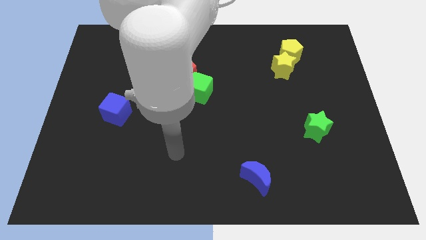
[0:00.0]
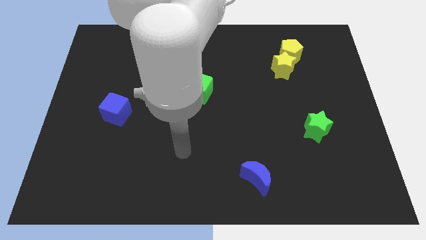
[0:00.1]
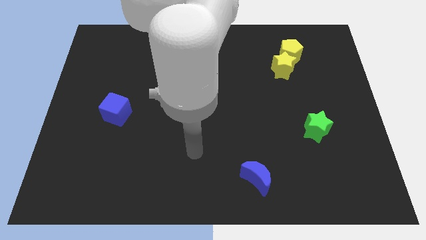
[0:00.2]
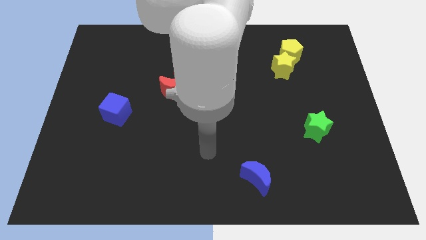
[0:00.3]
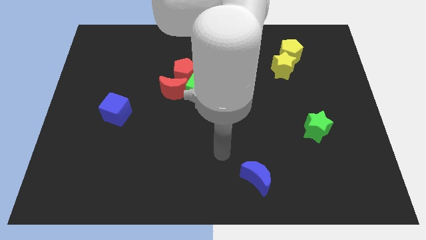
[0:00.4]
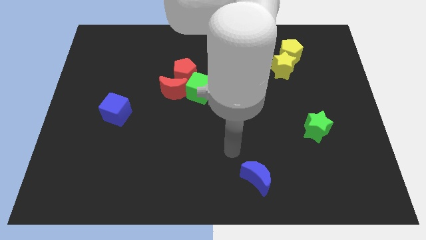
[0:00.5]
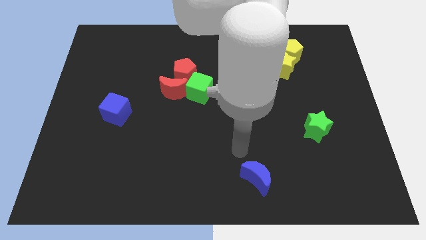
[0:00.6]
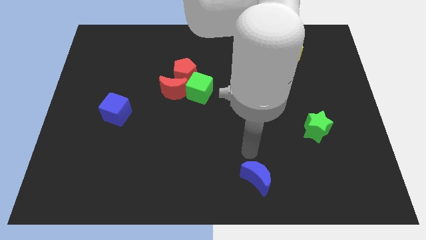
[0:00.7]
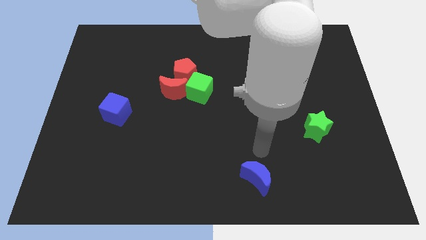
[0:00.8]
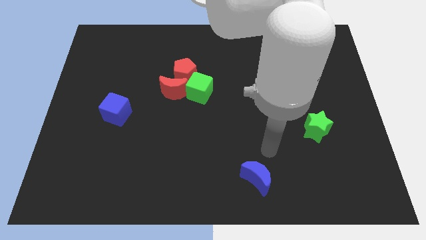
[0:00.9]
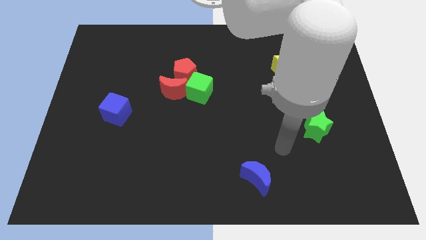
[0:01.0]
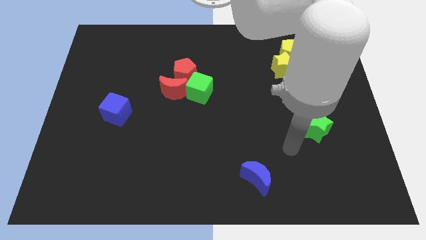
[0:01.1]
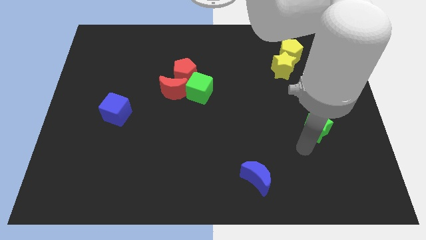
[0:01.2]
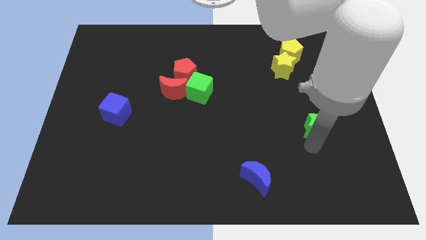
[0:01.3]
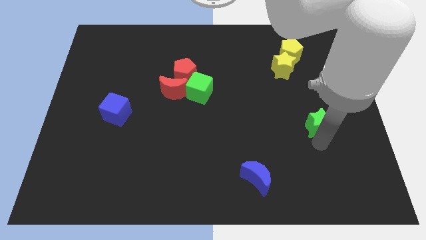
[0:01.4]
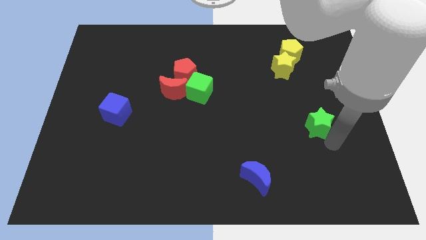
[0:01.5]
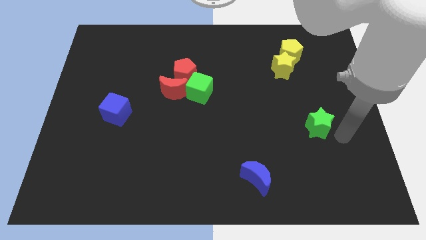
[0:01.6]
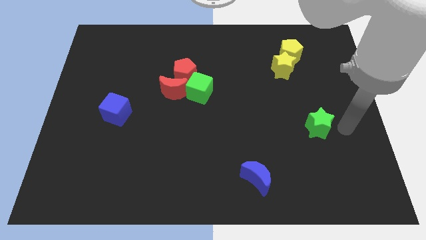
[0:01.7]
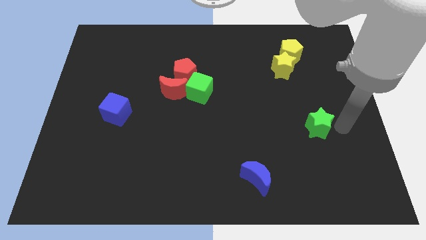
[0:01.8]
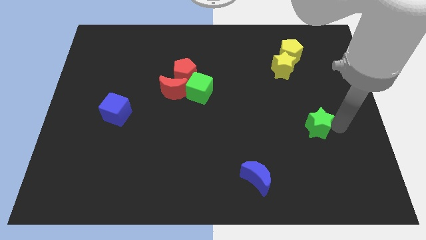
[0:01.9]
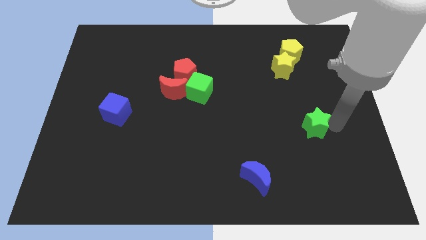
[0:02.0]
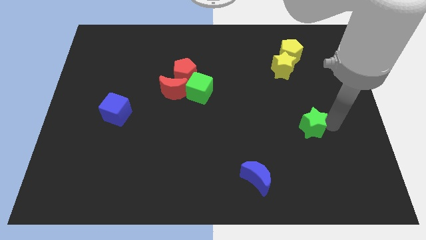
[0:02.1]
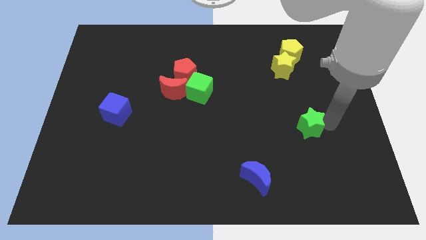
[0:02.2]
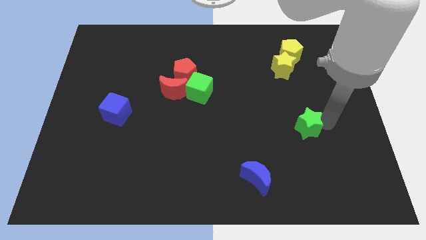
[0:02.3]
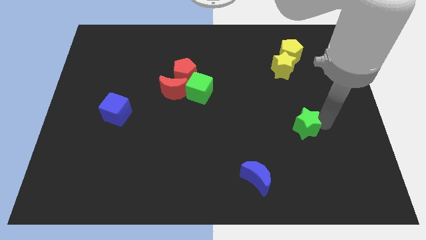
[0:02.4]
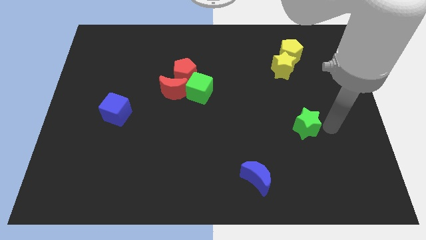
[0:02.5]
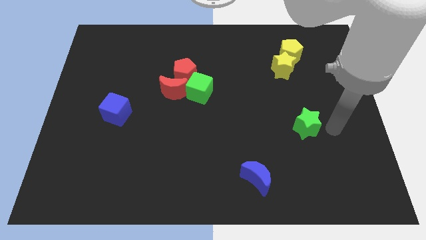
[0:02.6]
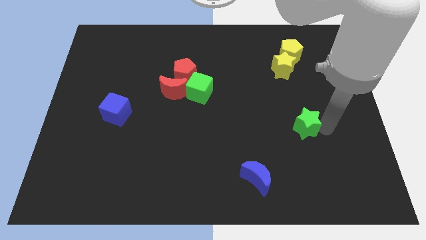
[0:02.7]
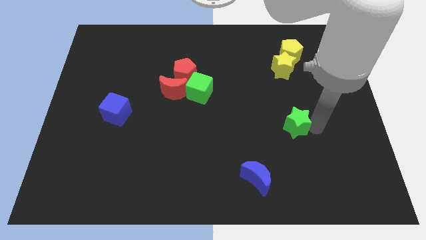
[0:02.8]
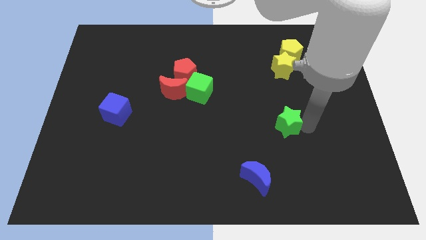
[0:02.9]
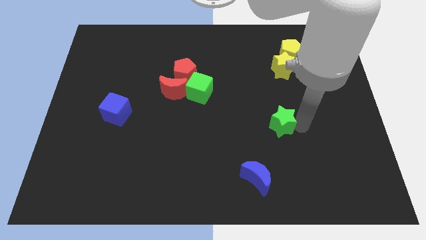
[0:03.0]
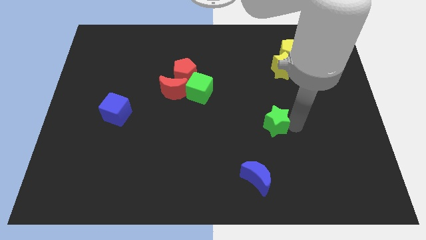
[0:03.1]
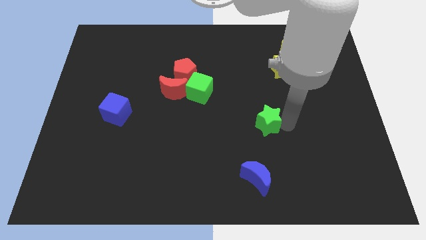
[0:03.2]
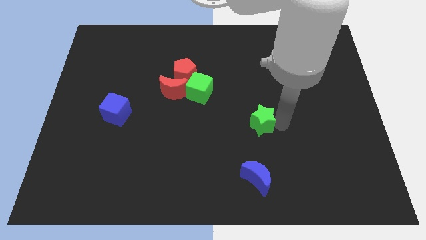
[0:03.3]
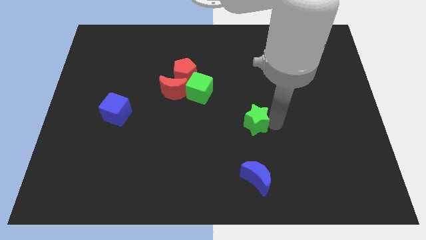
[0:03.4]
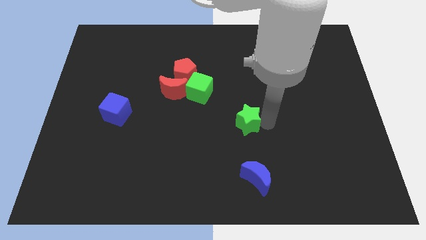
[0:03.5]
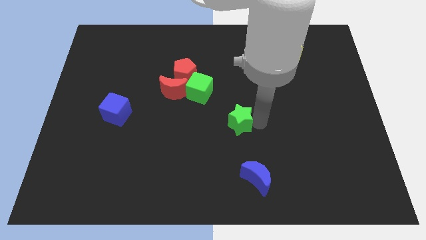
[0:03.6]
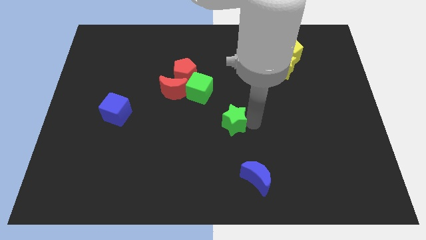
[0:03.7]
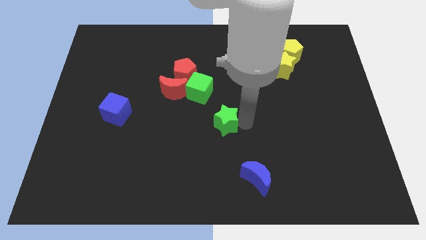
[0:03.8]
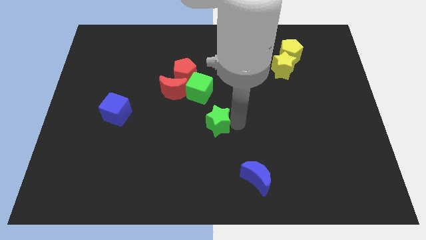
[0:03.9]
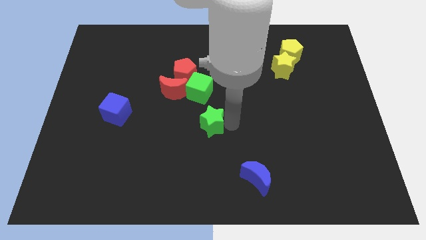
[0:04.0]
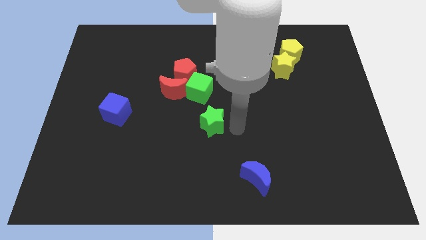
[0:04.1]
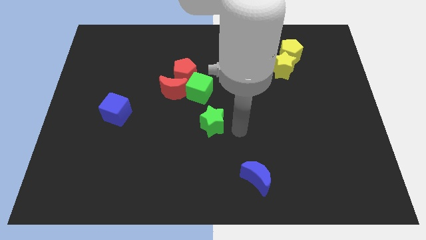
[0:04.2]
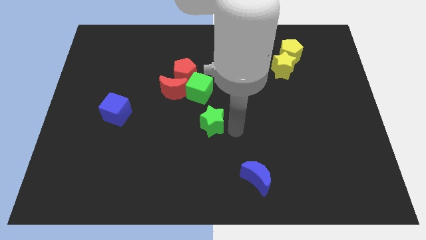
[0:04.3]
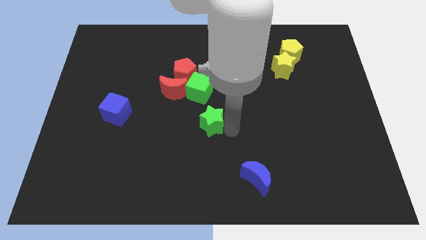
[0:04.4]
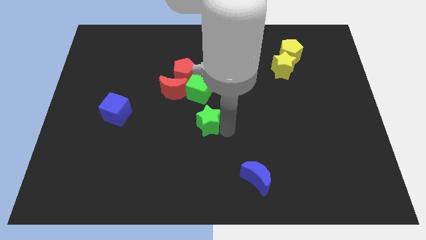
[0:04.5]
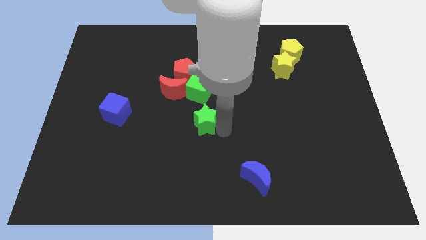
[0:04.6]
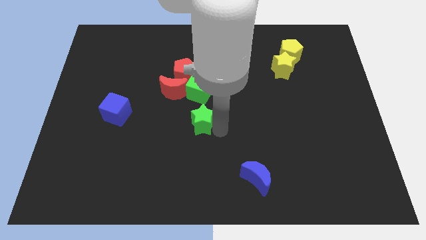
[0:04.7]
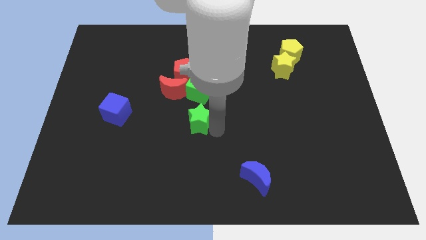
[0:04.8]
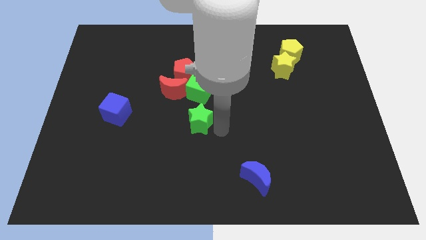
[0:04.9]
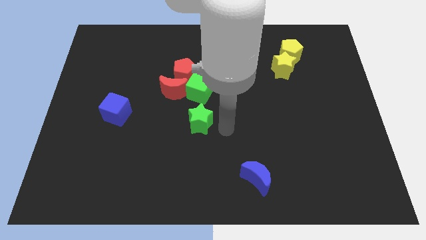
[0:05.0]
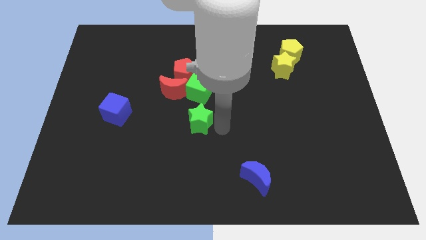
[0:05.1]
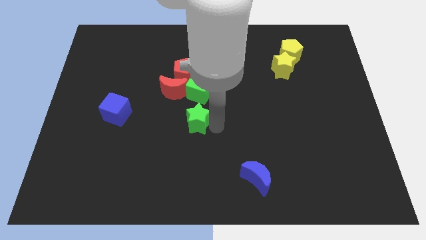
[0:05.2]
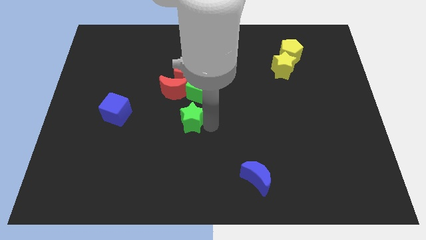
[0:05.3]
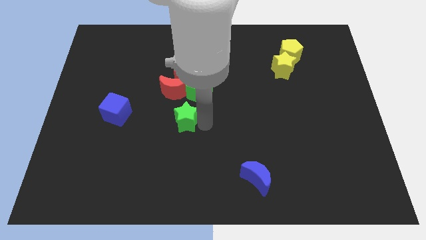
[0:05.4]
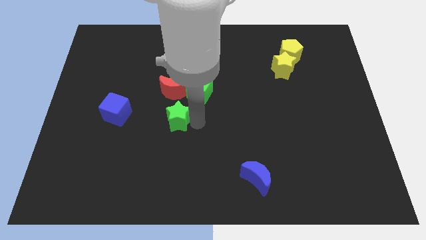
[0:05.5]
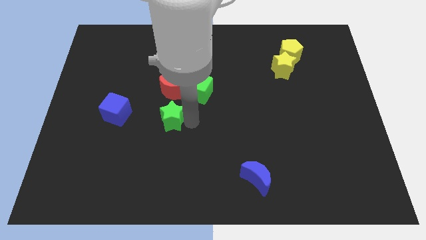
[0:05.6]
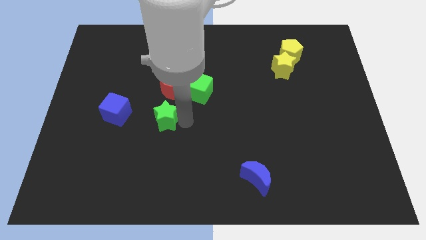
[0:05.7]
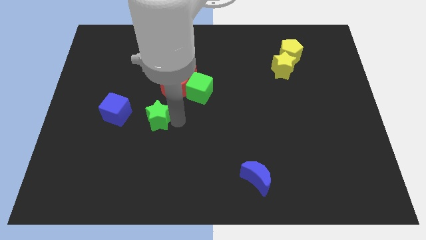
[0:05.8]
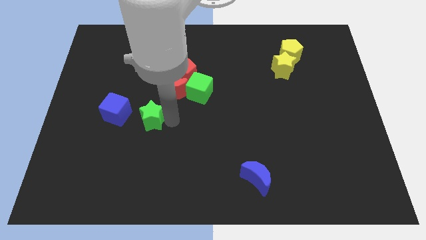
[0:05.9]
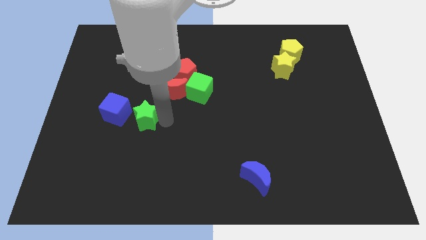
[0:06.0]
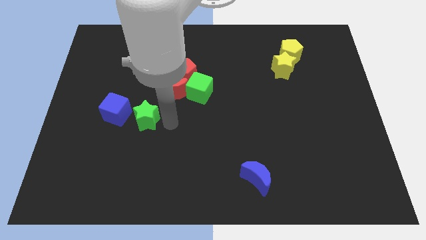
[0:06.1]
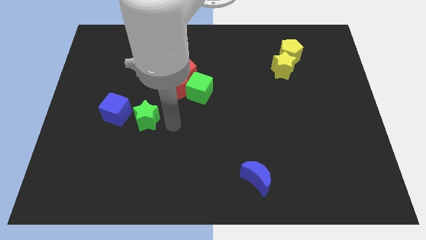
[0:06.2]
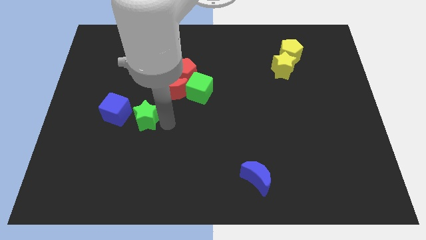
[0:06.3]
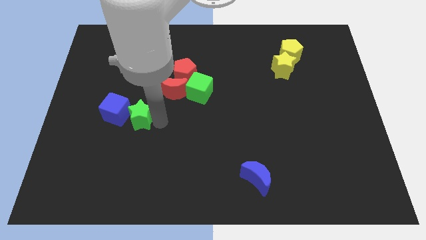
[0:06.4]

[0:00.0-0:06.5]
push the green star next to the blue cube
